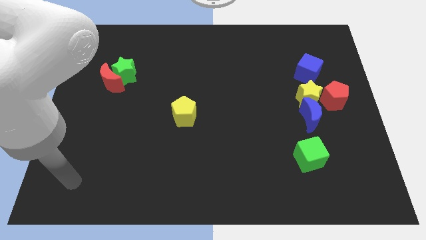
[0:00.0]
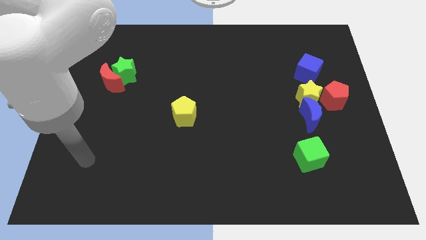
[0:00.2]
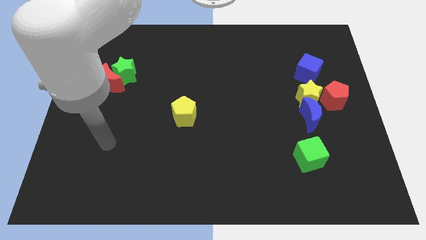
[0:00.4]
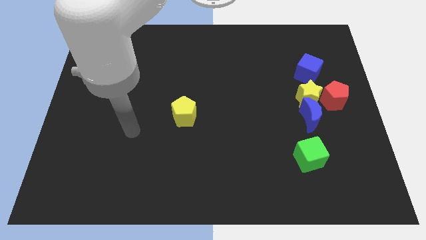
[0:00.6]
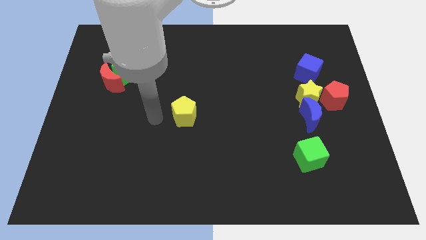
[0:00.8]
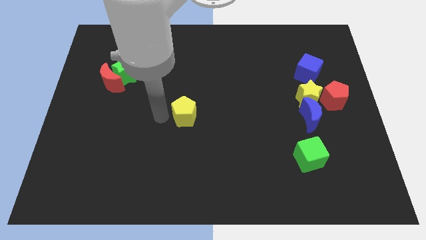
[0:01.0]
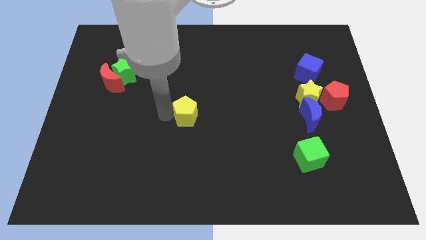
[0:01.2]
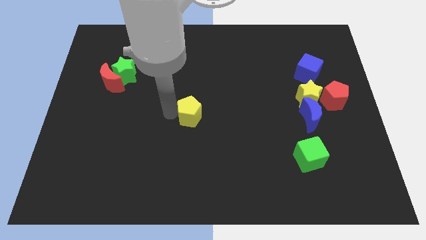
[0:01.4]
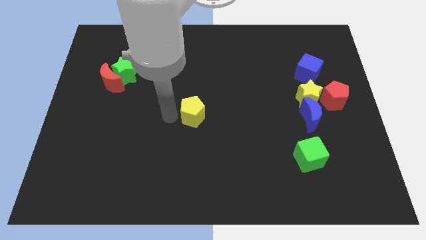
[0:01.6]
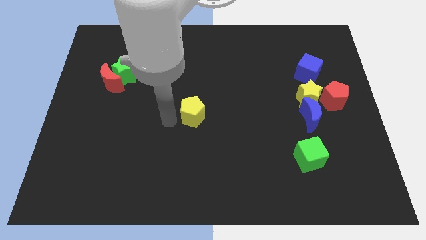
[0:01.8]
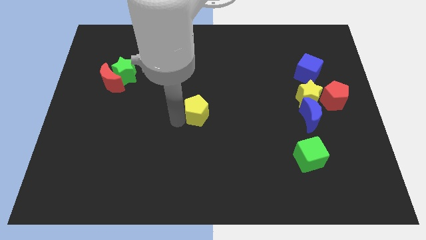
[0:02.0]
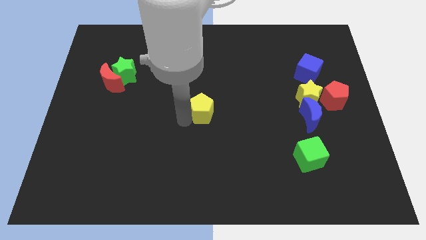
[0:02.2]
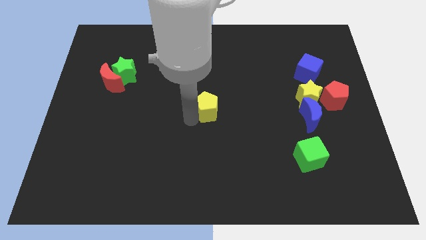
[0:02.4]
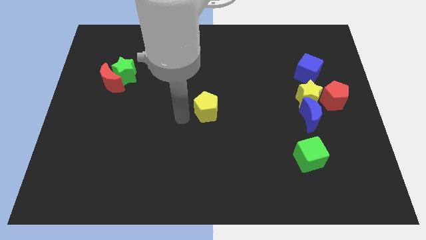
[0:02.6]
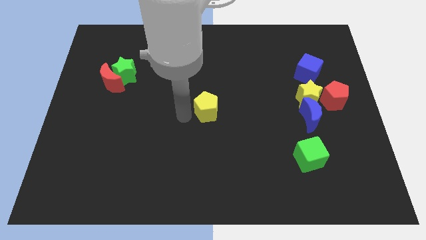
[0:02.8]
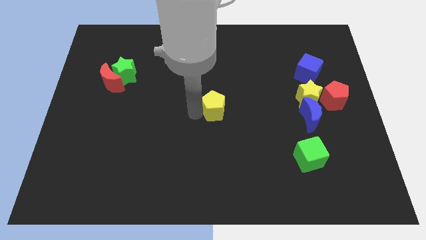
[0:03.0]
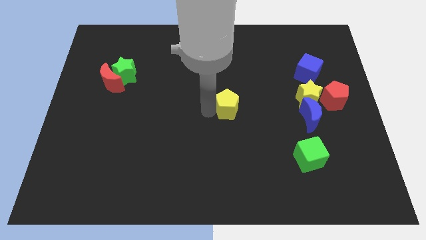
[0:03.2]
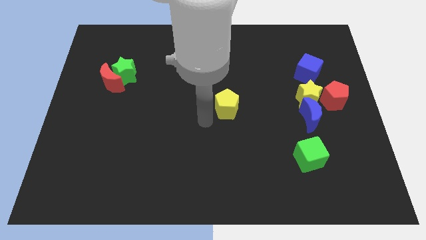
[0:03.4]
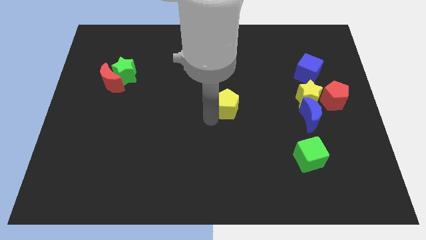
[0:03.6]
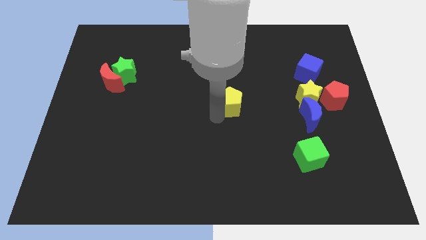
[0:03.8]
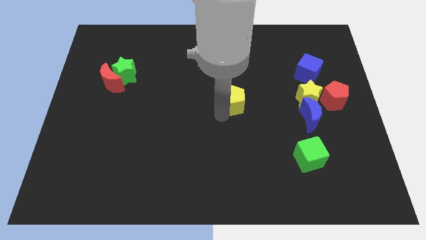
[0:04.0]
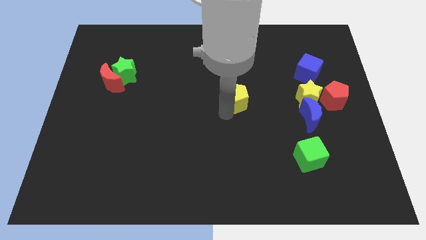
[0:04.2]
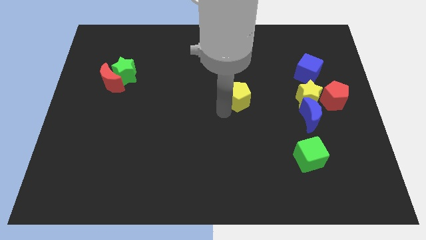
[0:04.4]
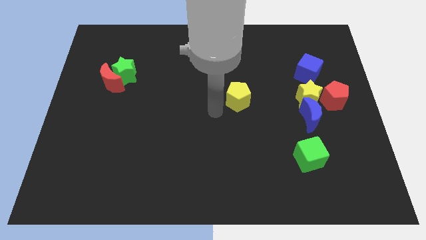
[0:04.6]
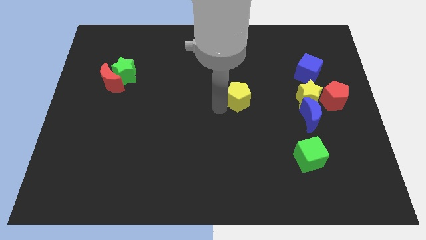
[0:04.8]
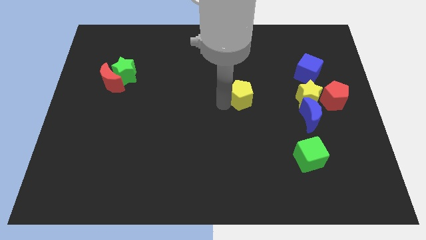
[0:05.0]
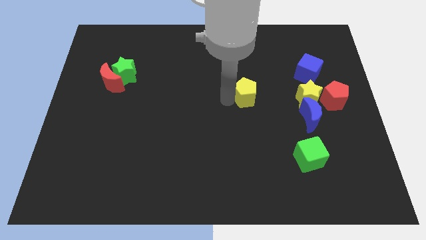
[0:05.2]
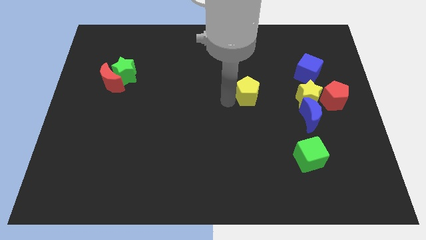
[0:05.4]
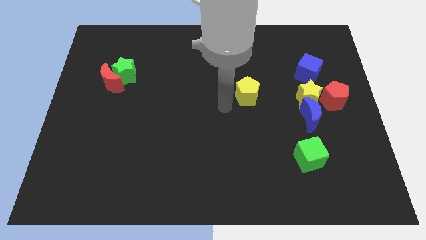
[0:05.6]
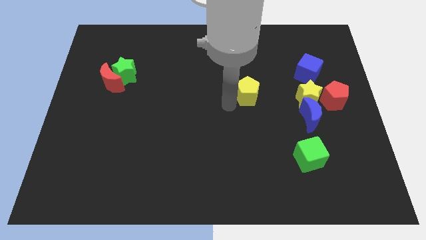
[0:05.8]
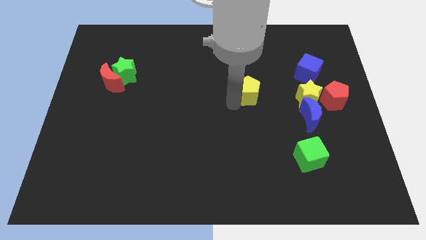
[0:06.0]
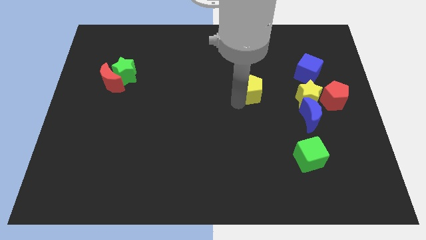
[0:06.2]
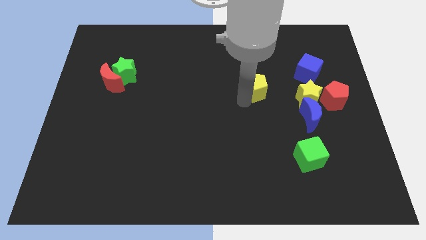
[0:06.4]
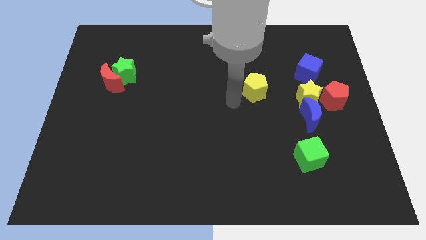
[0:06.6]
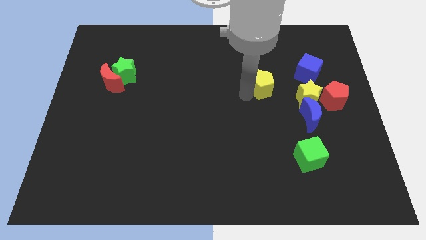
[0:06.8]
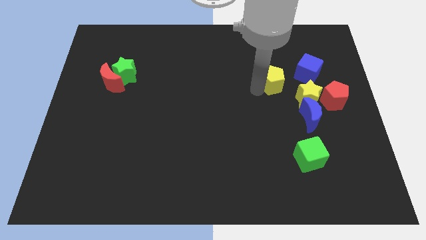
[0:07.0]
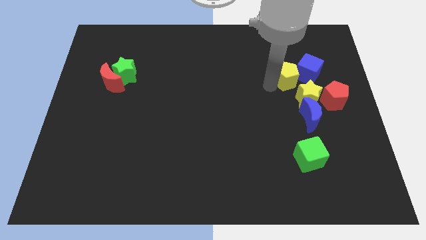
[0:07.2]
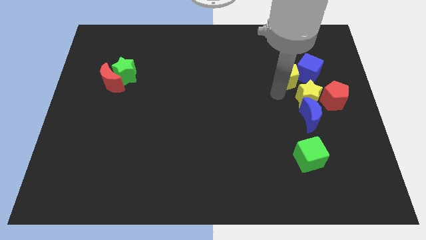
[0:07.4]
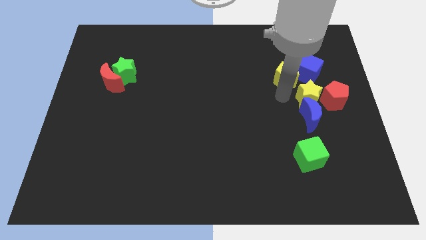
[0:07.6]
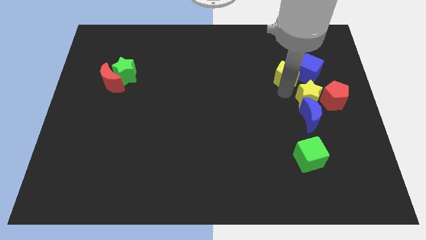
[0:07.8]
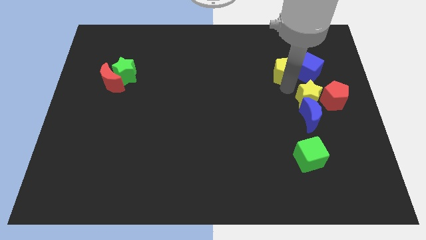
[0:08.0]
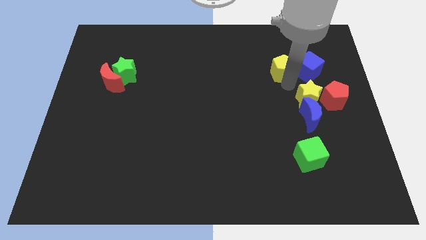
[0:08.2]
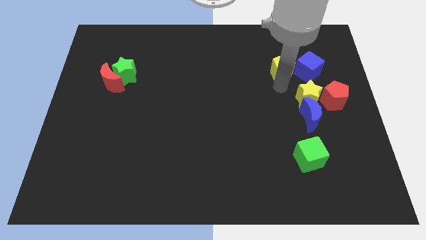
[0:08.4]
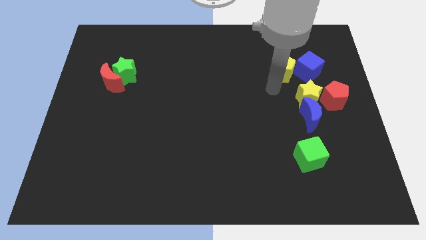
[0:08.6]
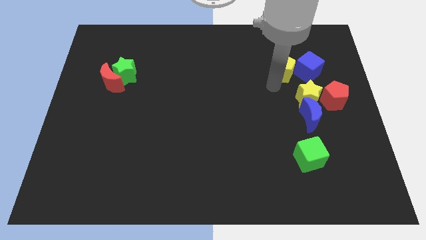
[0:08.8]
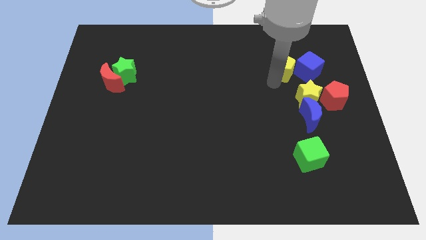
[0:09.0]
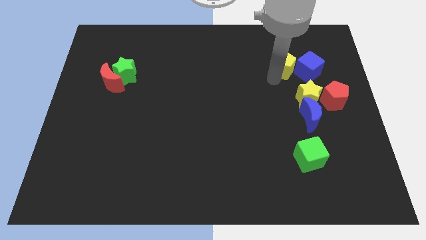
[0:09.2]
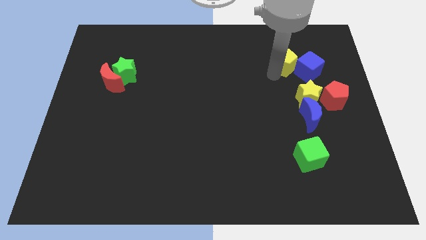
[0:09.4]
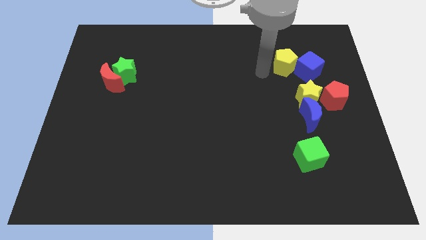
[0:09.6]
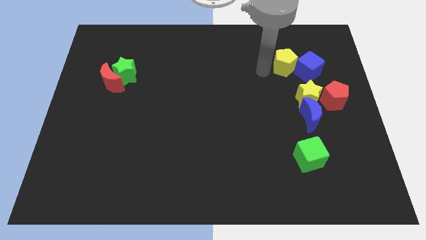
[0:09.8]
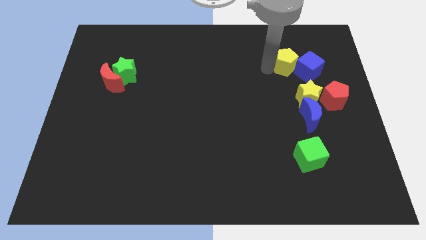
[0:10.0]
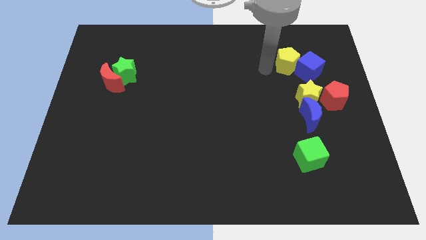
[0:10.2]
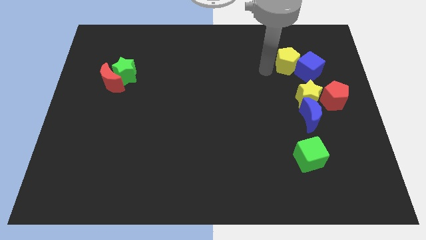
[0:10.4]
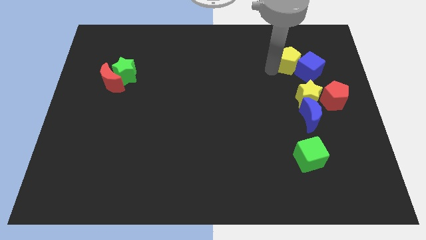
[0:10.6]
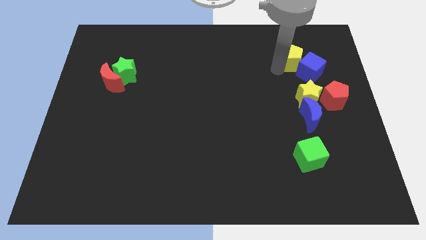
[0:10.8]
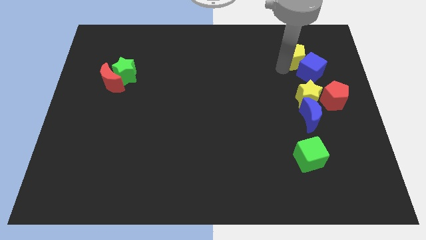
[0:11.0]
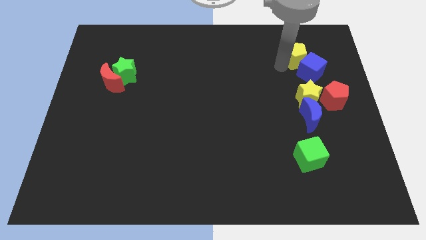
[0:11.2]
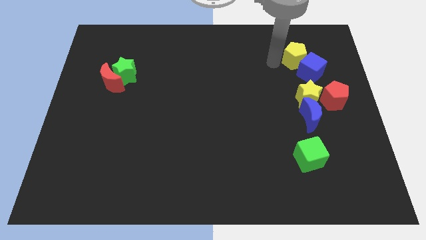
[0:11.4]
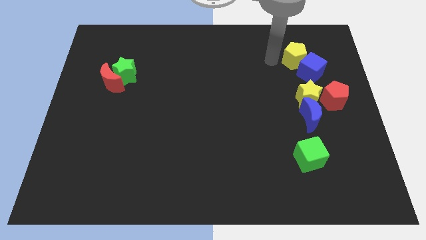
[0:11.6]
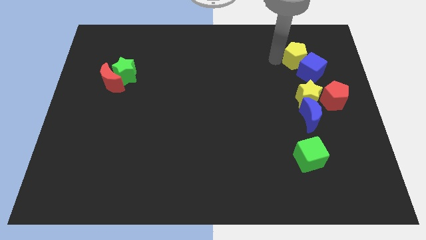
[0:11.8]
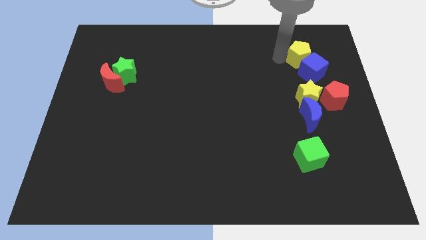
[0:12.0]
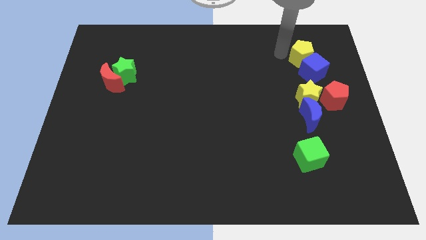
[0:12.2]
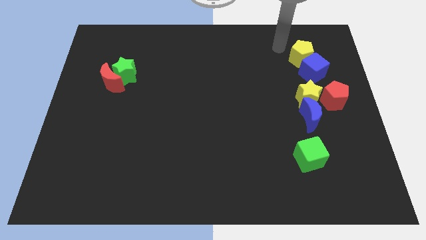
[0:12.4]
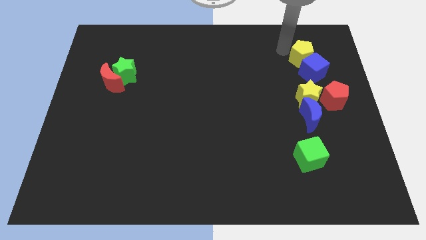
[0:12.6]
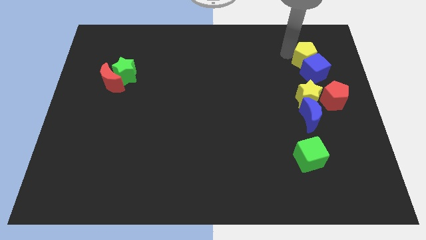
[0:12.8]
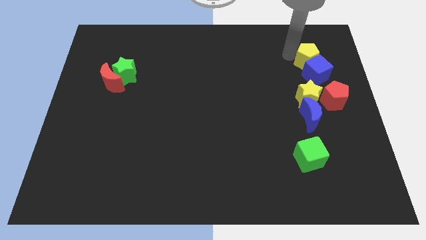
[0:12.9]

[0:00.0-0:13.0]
slide the yellow pentagon above the red pentagon

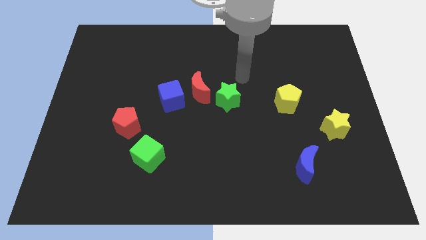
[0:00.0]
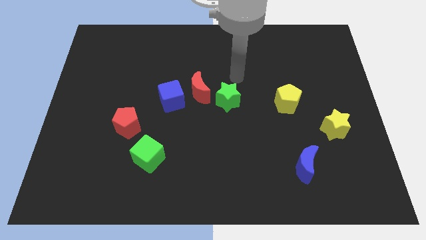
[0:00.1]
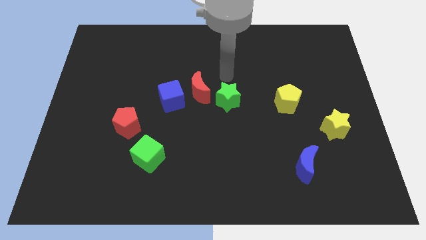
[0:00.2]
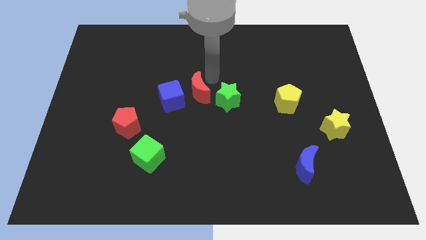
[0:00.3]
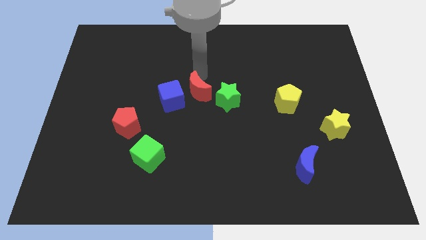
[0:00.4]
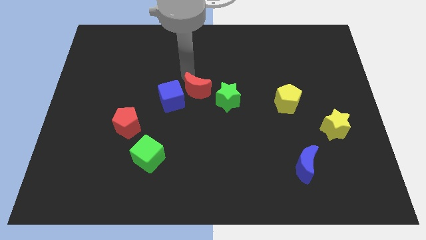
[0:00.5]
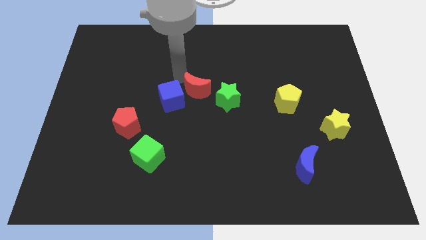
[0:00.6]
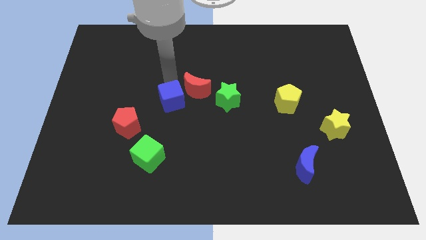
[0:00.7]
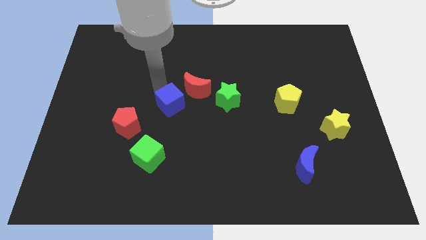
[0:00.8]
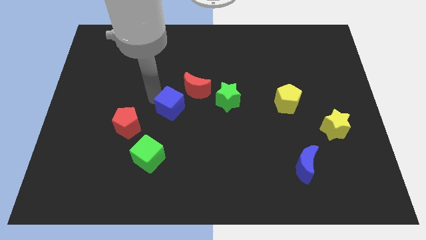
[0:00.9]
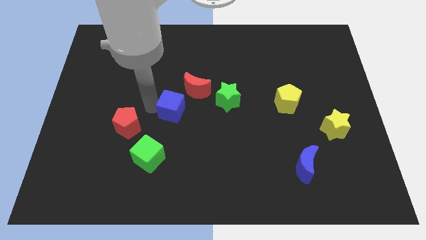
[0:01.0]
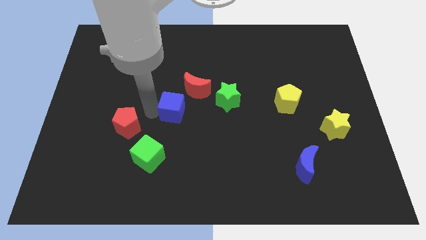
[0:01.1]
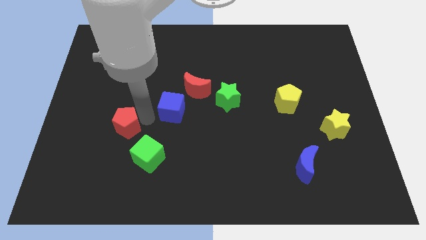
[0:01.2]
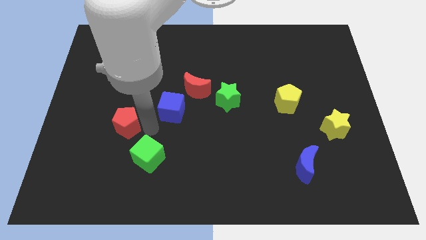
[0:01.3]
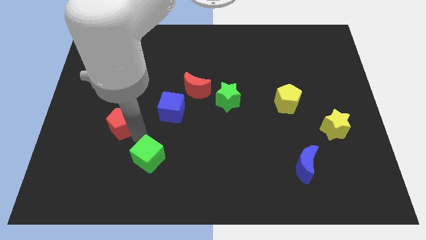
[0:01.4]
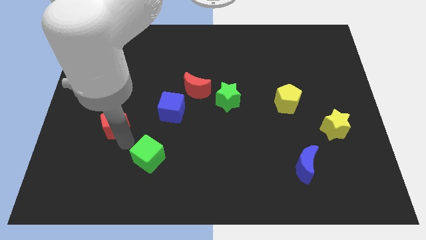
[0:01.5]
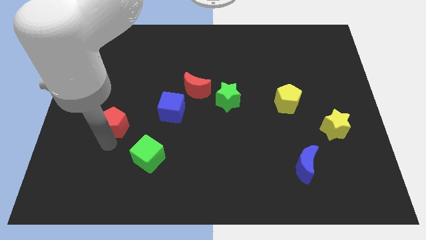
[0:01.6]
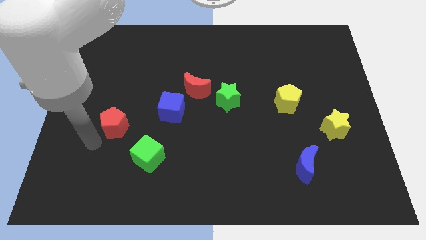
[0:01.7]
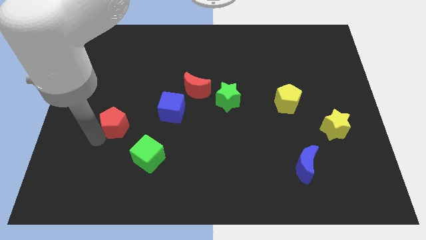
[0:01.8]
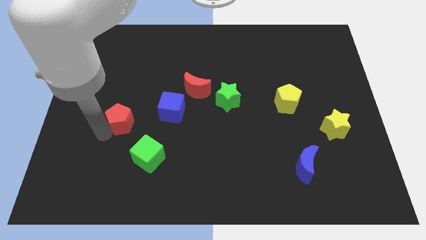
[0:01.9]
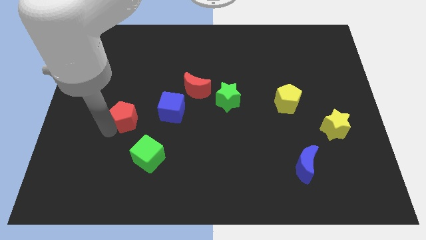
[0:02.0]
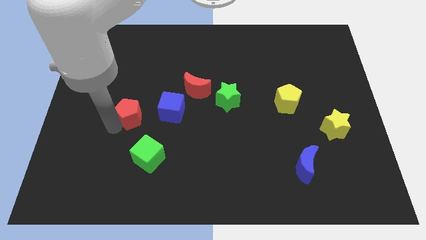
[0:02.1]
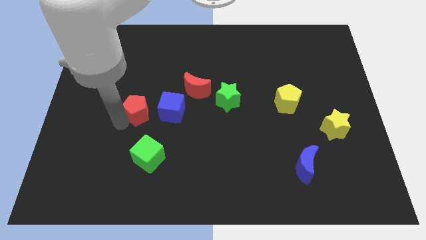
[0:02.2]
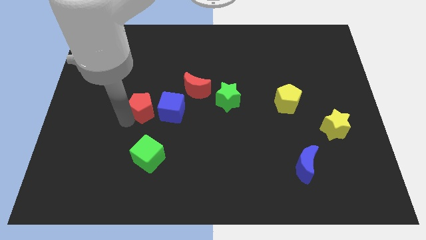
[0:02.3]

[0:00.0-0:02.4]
move the red pentagon to the top left side of the blue cube
